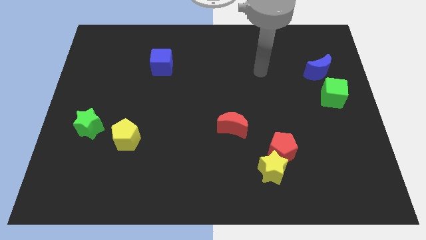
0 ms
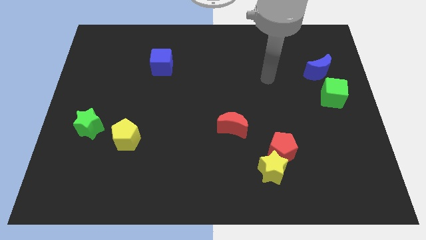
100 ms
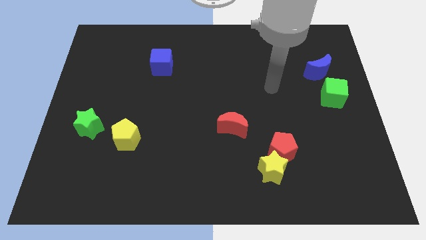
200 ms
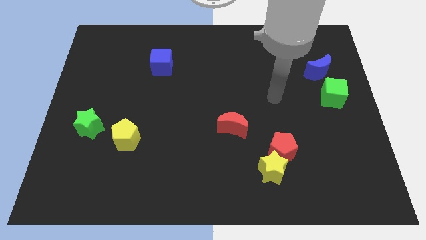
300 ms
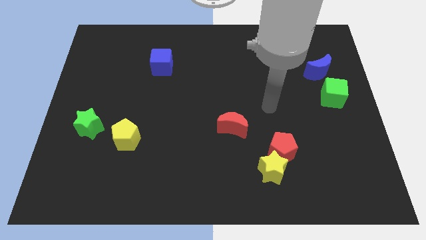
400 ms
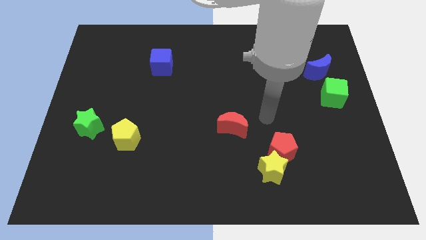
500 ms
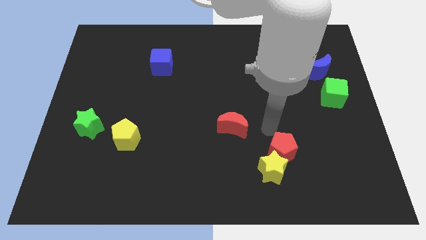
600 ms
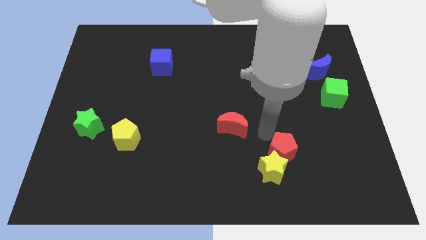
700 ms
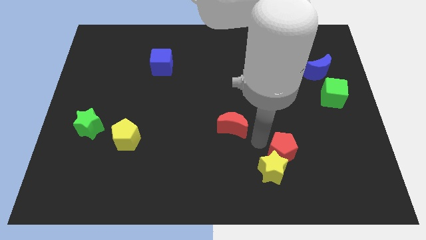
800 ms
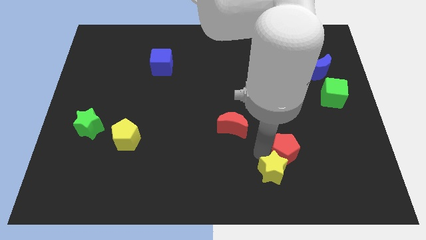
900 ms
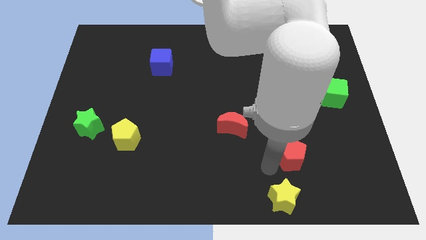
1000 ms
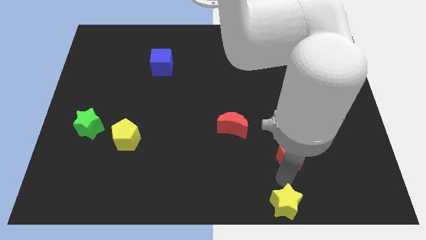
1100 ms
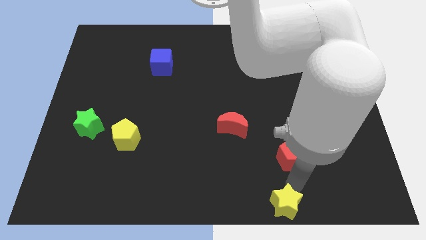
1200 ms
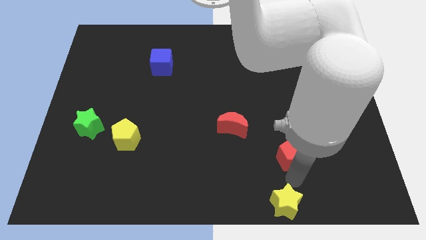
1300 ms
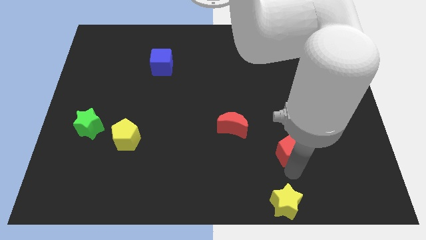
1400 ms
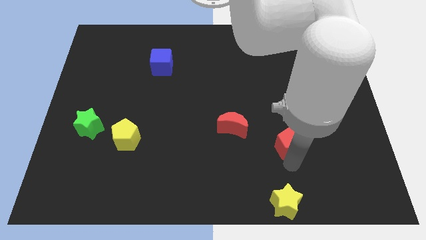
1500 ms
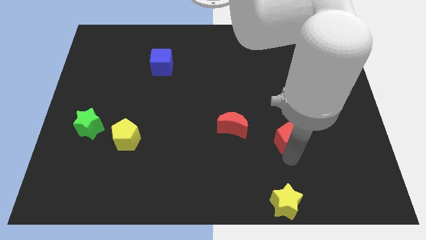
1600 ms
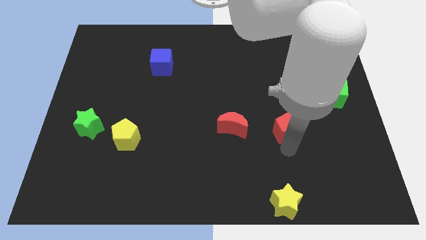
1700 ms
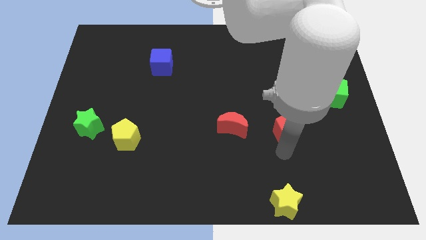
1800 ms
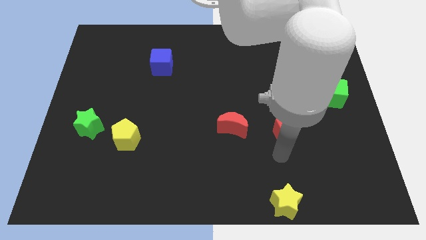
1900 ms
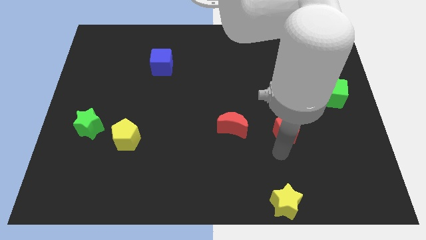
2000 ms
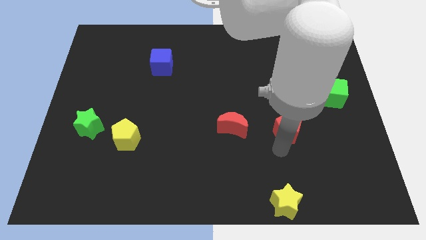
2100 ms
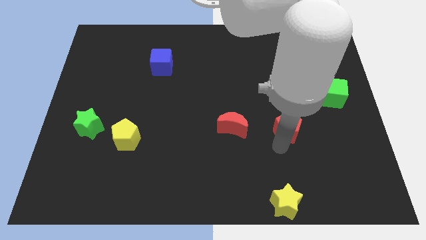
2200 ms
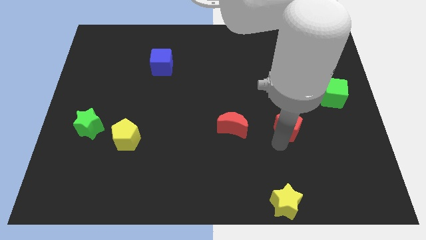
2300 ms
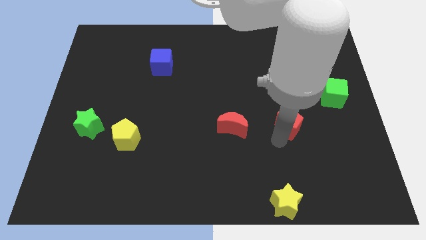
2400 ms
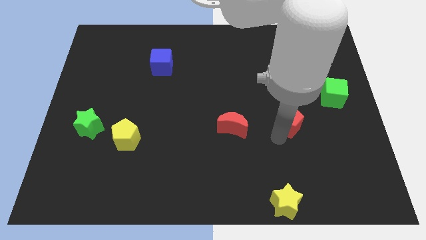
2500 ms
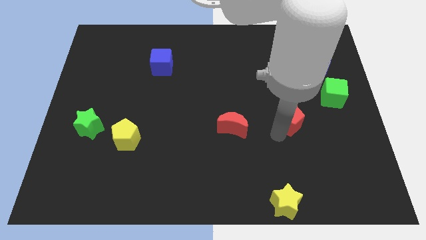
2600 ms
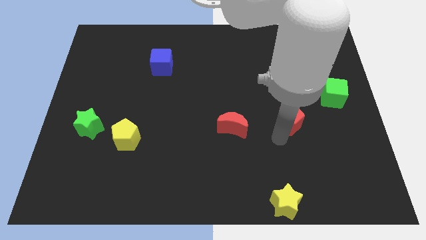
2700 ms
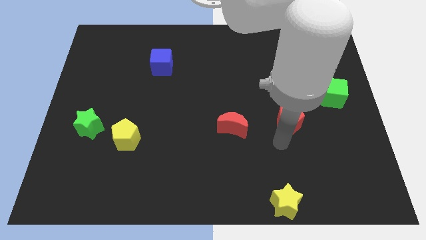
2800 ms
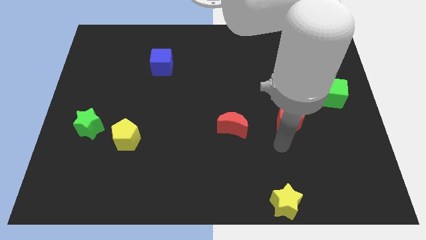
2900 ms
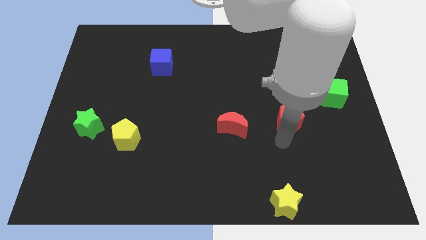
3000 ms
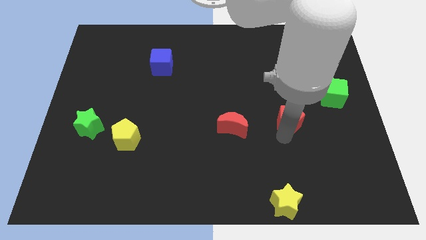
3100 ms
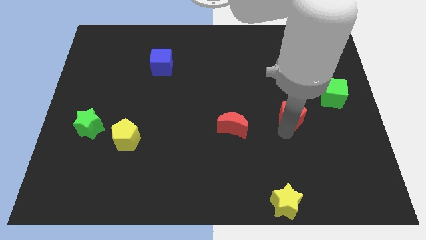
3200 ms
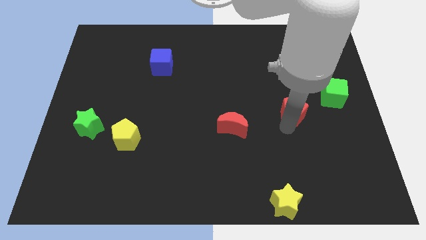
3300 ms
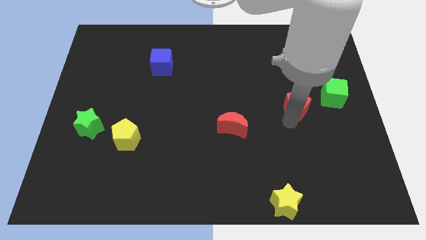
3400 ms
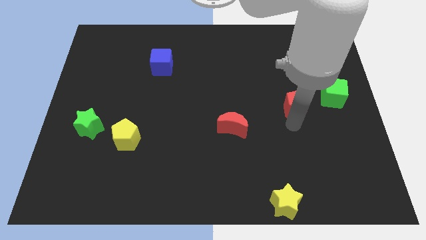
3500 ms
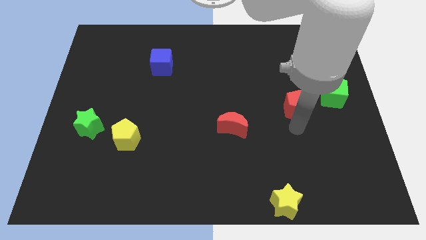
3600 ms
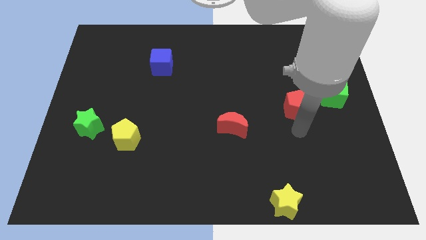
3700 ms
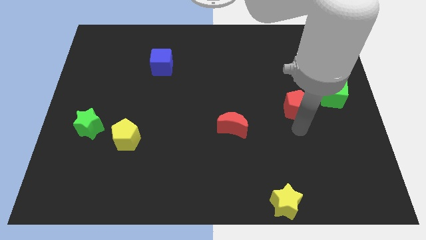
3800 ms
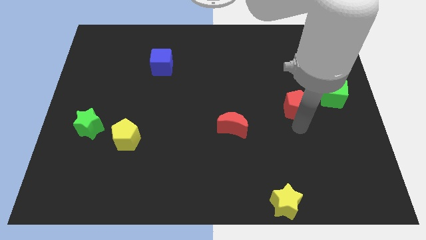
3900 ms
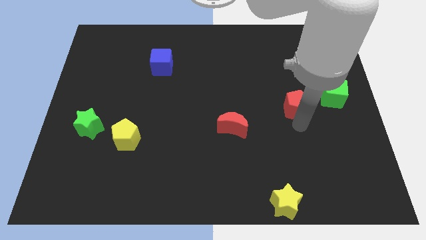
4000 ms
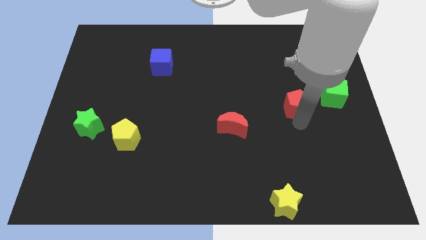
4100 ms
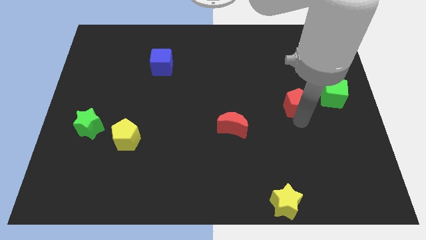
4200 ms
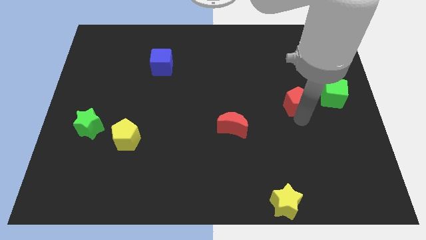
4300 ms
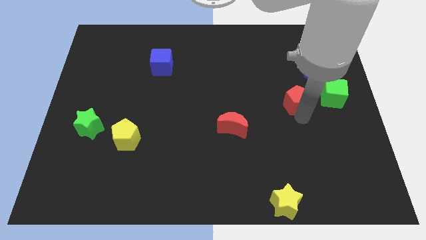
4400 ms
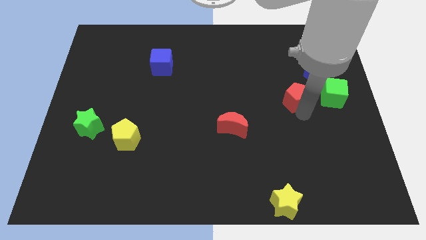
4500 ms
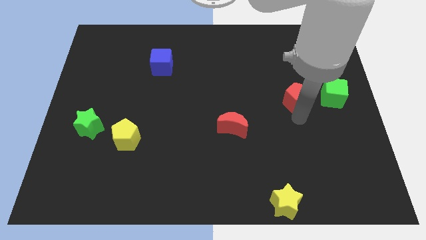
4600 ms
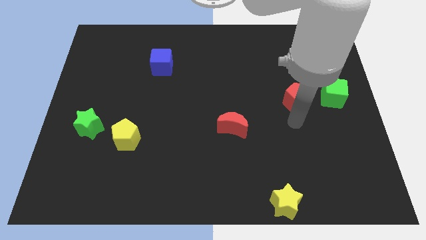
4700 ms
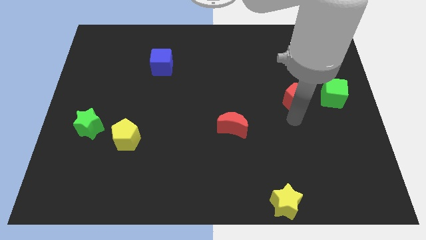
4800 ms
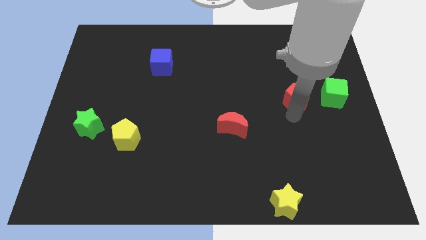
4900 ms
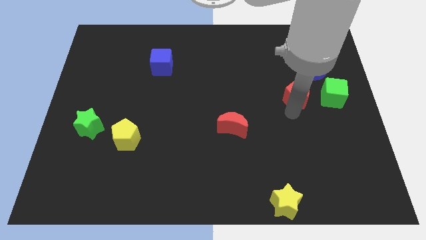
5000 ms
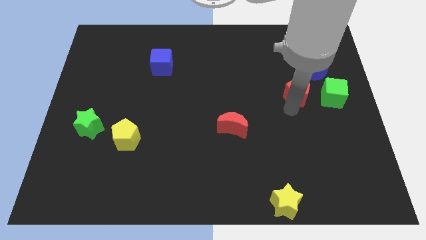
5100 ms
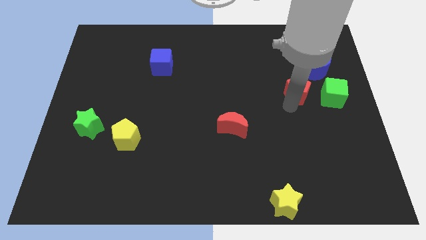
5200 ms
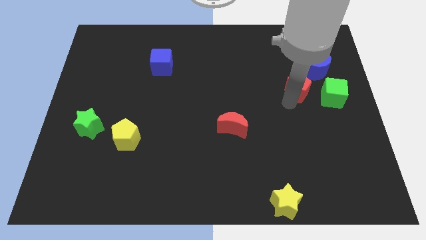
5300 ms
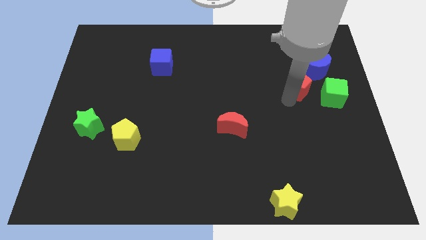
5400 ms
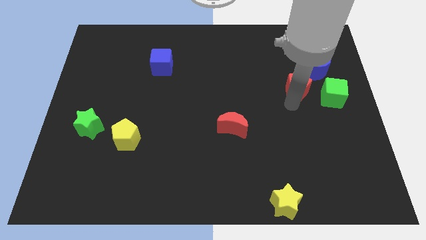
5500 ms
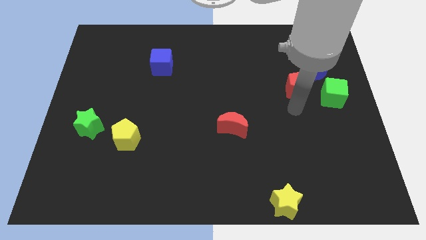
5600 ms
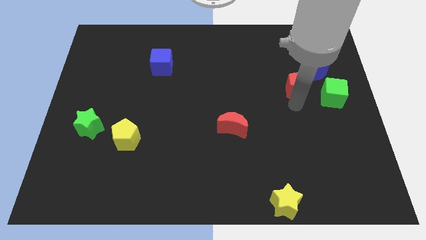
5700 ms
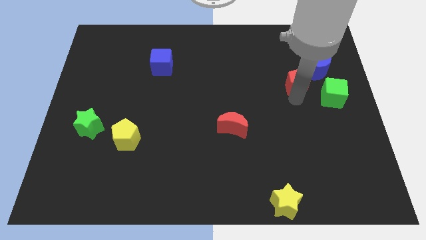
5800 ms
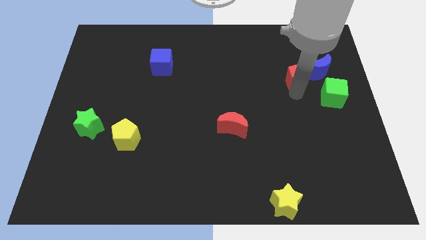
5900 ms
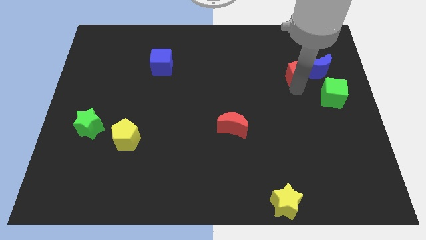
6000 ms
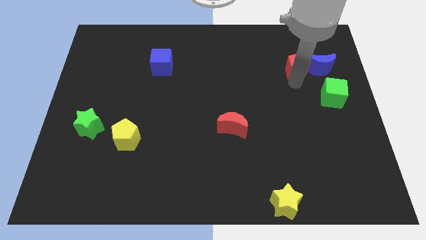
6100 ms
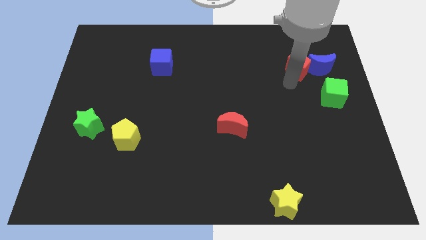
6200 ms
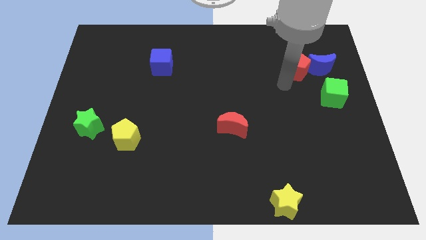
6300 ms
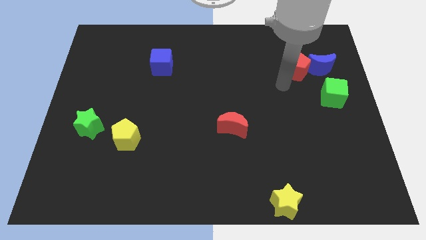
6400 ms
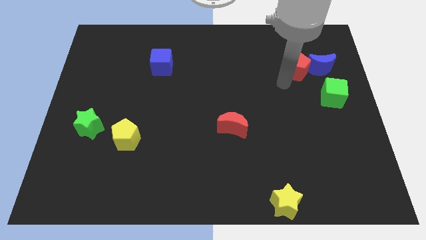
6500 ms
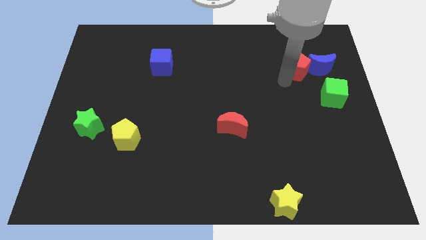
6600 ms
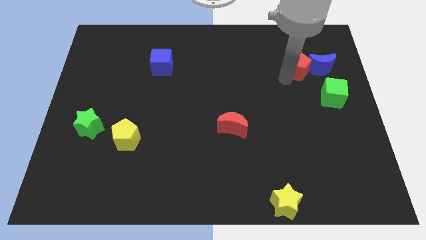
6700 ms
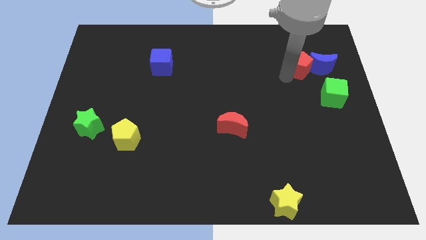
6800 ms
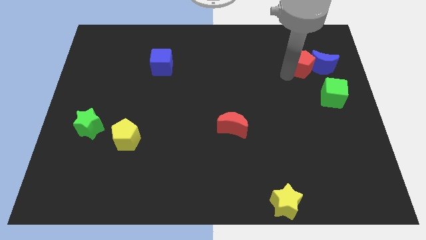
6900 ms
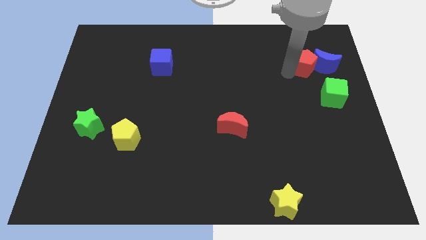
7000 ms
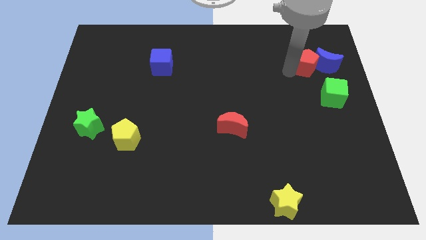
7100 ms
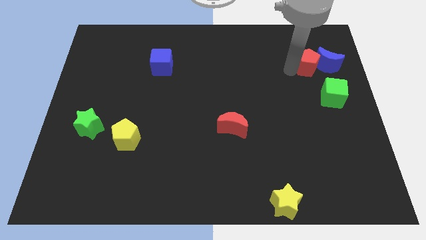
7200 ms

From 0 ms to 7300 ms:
move the red pentagon to the top of the green cube
